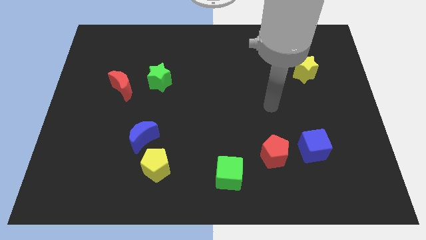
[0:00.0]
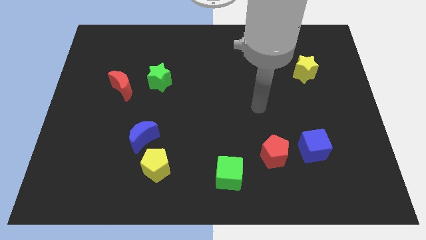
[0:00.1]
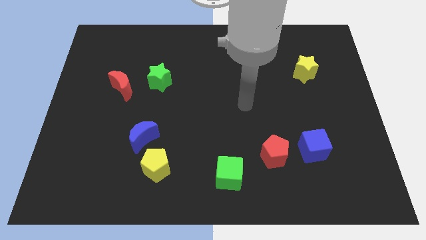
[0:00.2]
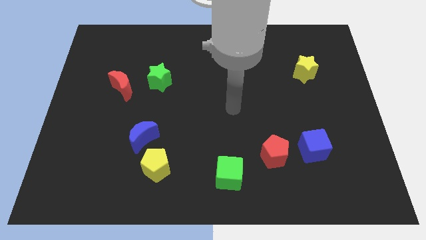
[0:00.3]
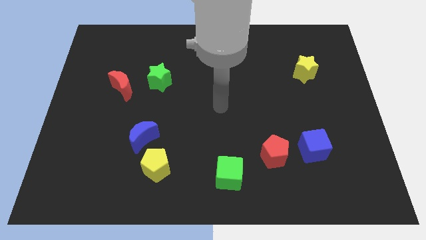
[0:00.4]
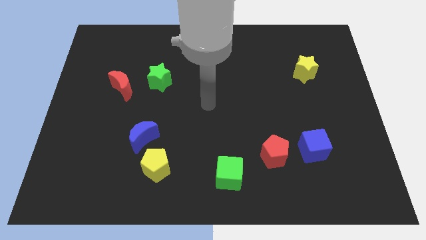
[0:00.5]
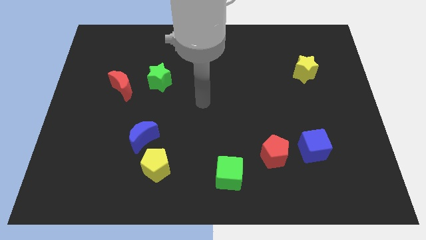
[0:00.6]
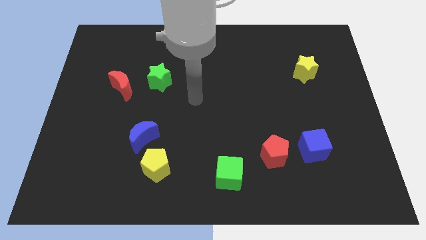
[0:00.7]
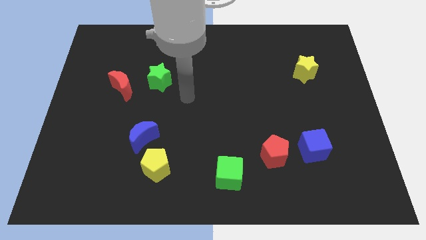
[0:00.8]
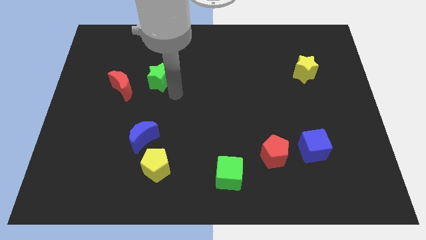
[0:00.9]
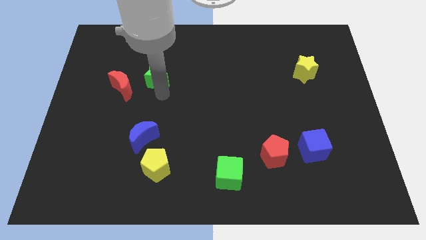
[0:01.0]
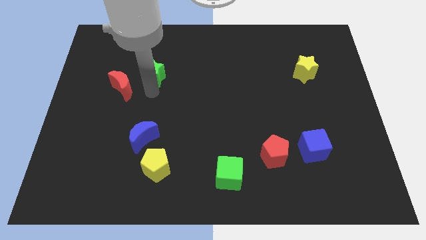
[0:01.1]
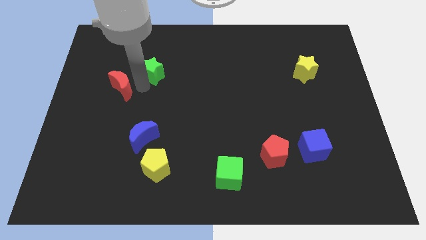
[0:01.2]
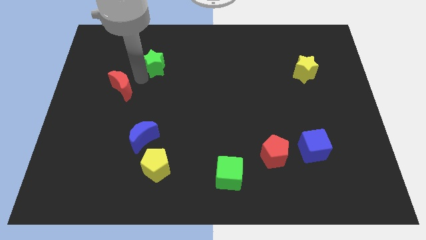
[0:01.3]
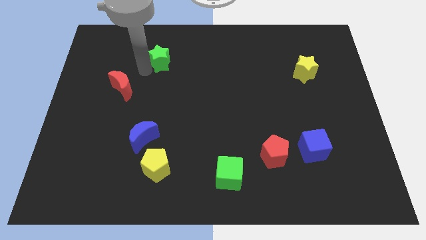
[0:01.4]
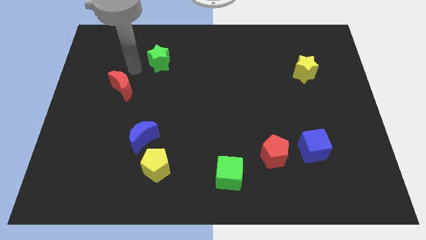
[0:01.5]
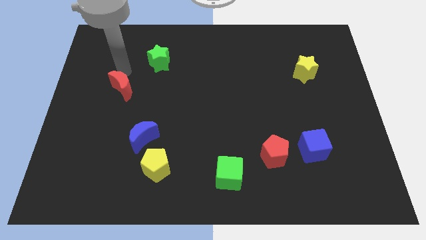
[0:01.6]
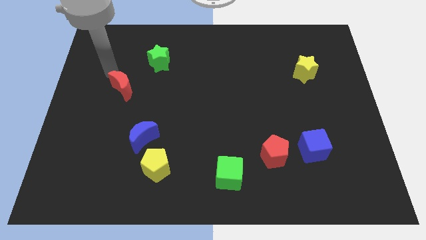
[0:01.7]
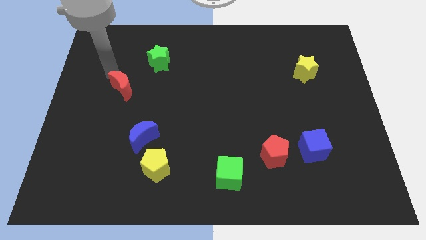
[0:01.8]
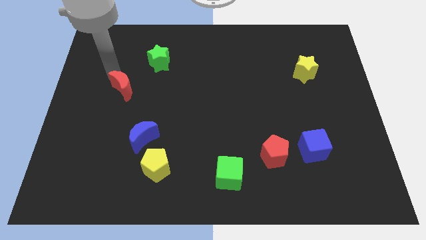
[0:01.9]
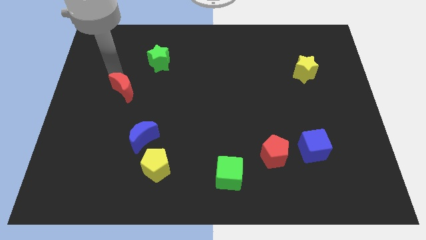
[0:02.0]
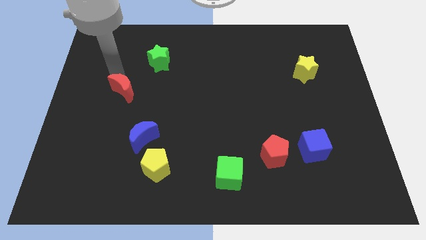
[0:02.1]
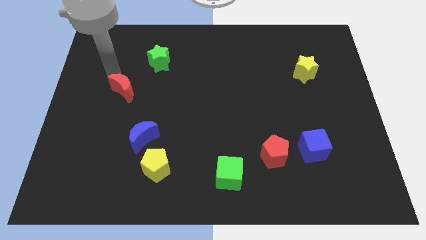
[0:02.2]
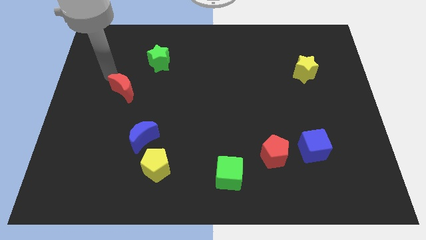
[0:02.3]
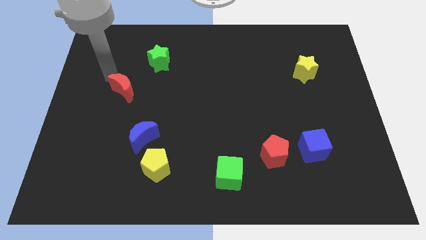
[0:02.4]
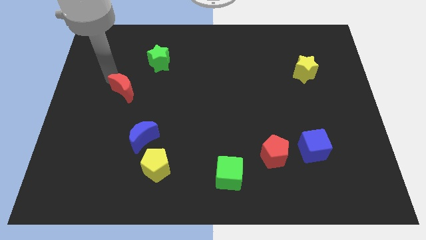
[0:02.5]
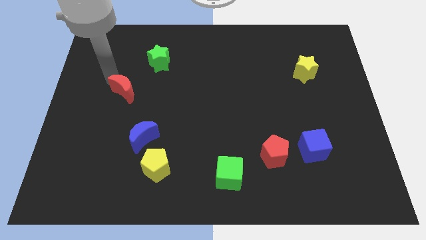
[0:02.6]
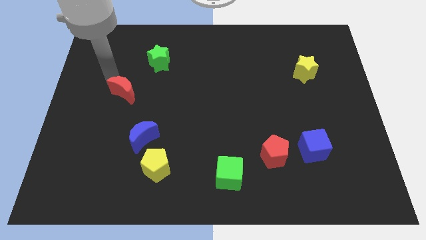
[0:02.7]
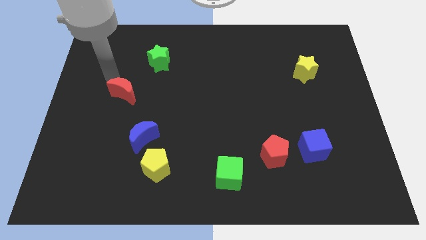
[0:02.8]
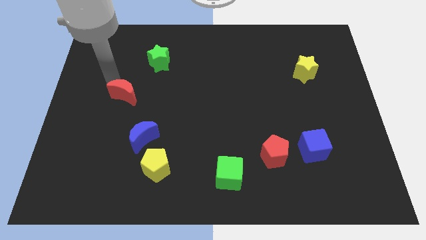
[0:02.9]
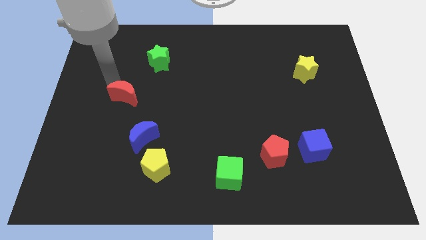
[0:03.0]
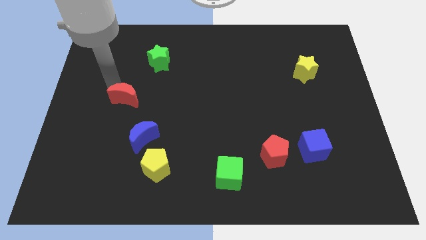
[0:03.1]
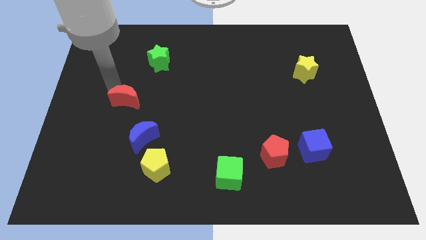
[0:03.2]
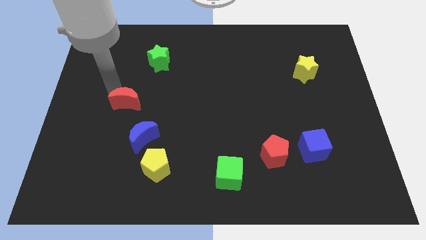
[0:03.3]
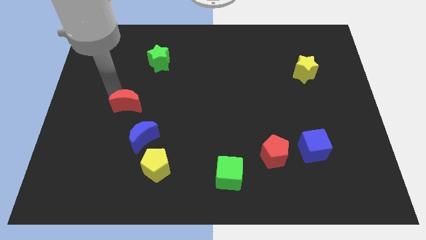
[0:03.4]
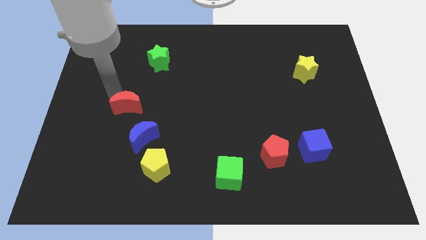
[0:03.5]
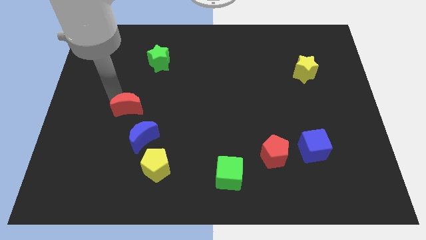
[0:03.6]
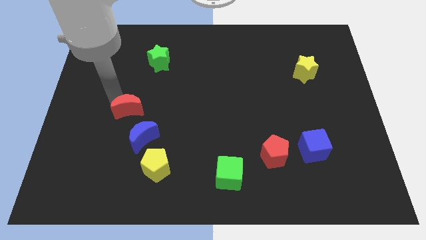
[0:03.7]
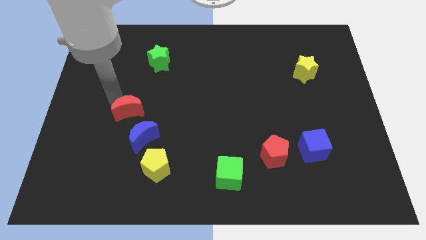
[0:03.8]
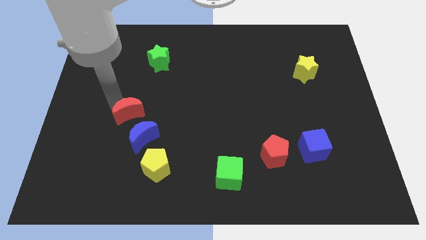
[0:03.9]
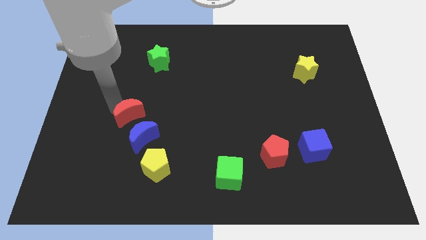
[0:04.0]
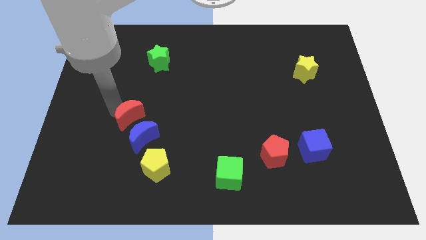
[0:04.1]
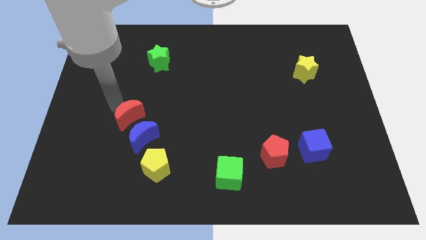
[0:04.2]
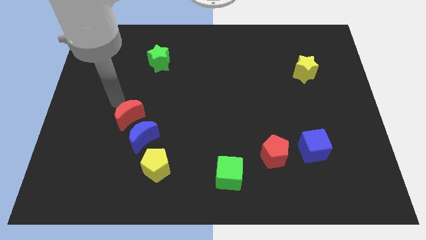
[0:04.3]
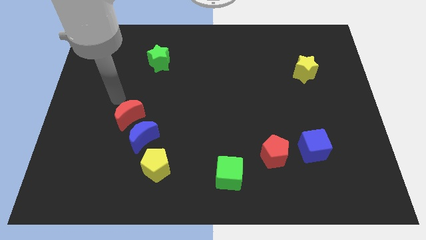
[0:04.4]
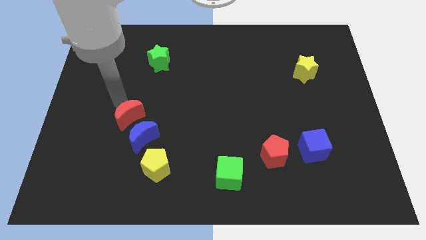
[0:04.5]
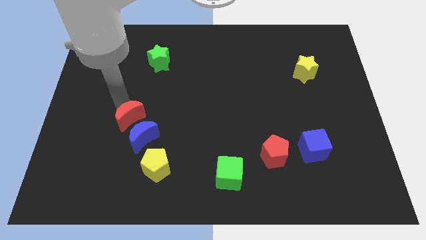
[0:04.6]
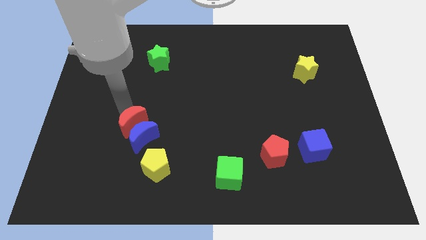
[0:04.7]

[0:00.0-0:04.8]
push the red moon close to the blue moon

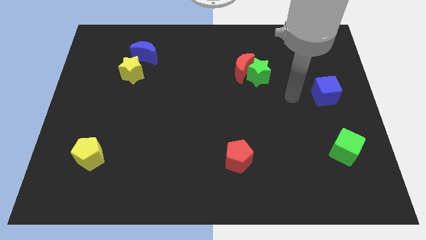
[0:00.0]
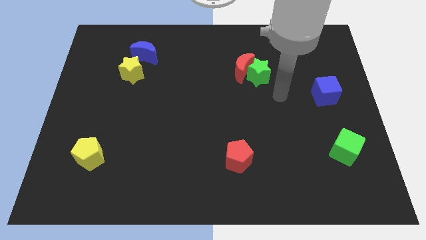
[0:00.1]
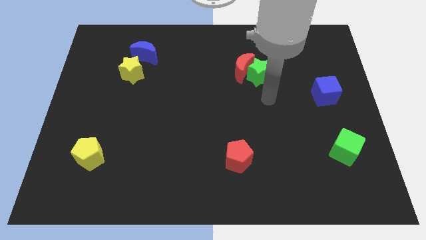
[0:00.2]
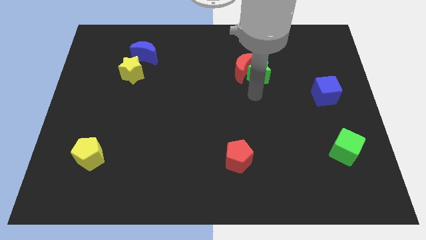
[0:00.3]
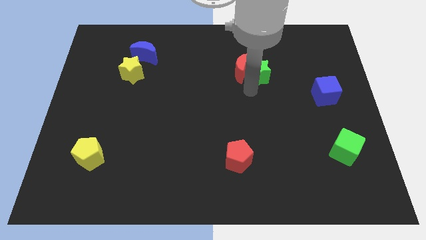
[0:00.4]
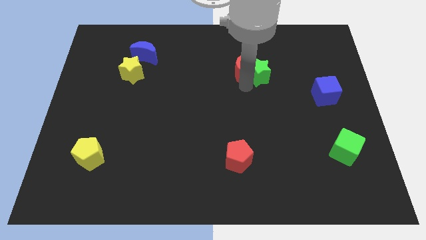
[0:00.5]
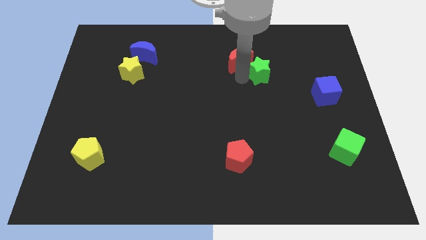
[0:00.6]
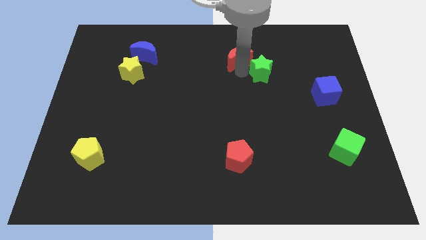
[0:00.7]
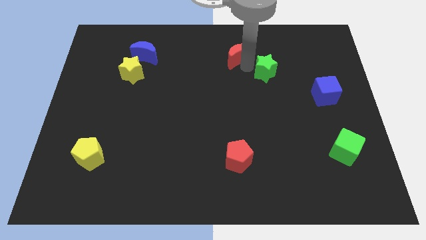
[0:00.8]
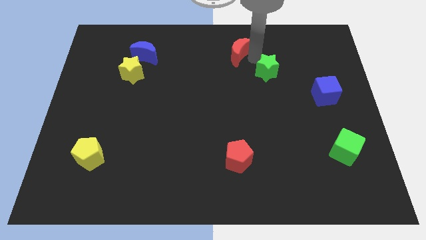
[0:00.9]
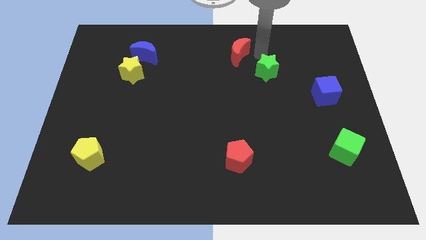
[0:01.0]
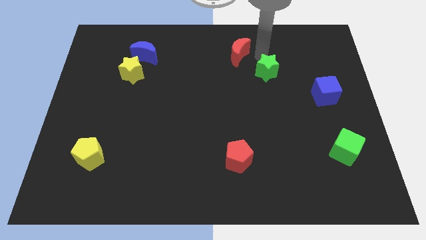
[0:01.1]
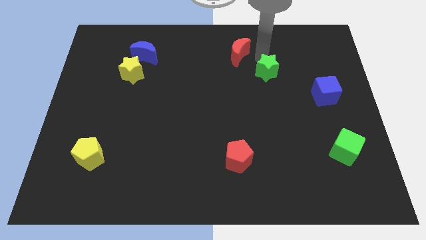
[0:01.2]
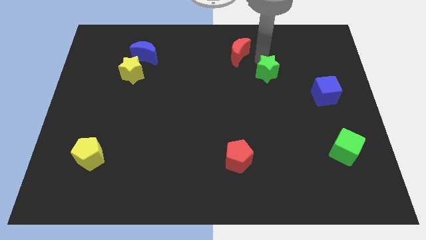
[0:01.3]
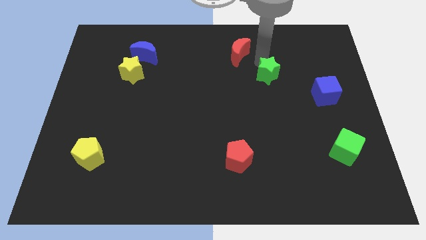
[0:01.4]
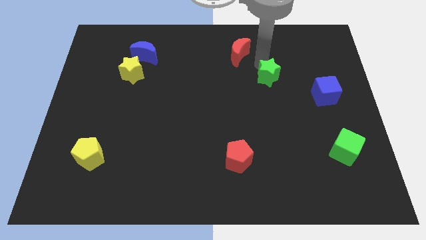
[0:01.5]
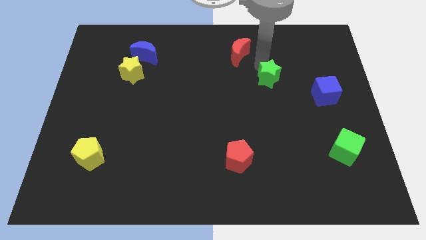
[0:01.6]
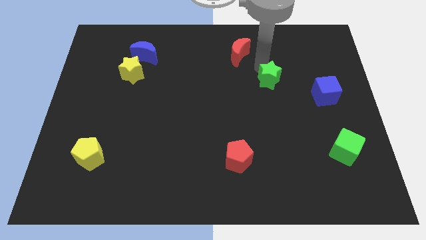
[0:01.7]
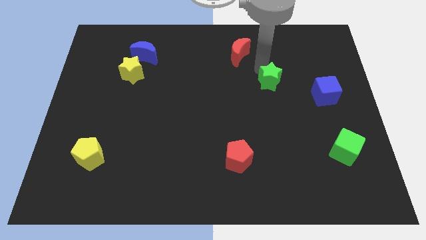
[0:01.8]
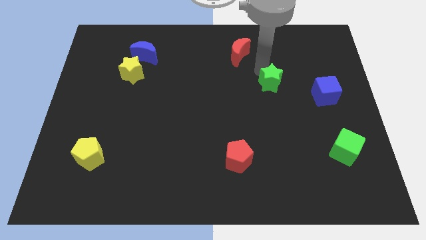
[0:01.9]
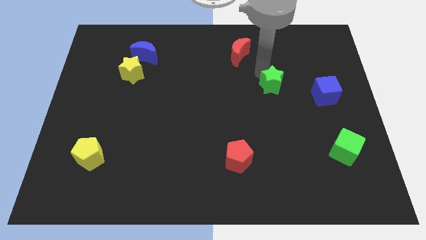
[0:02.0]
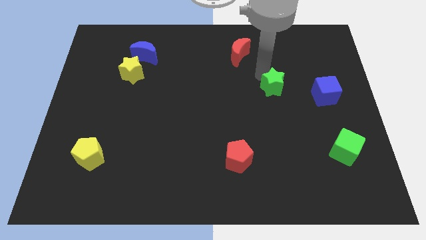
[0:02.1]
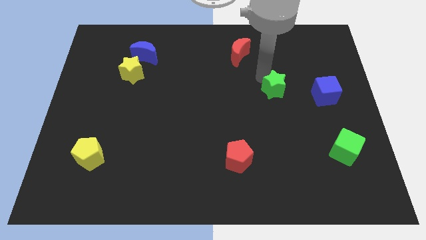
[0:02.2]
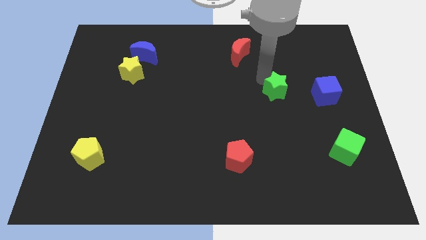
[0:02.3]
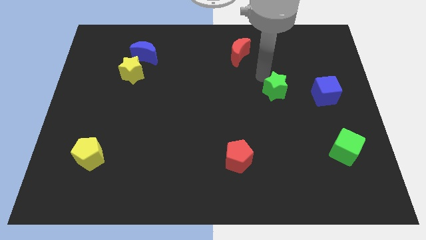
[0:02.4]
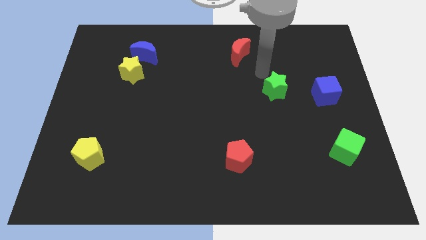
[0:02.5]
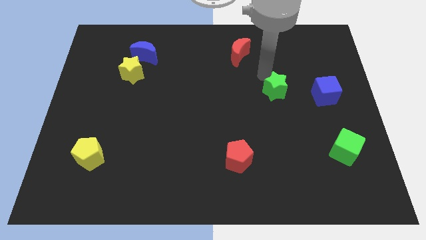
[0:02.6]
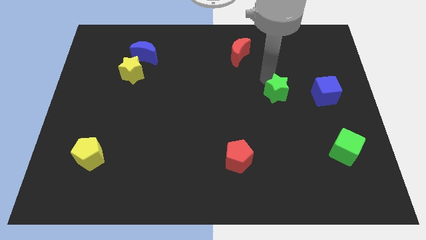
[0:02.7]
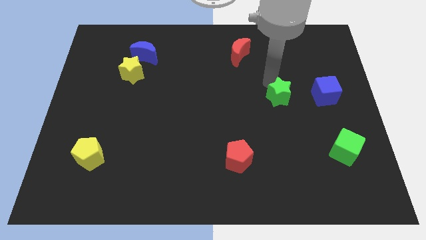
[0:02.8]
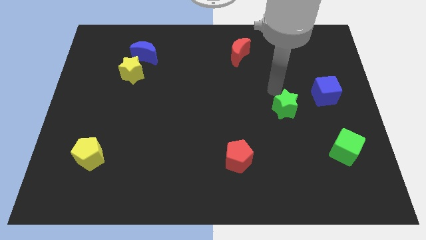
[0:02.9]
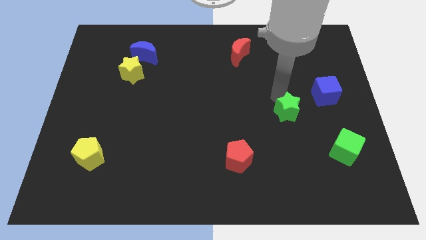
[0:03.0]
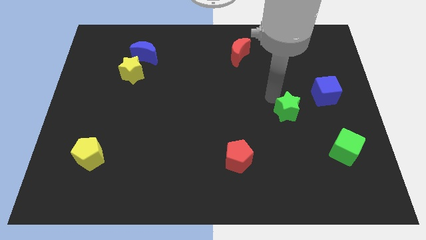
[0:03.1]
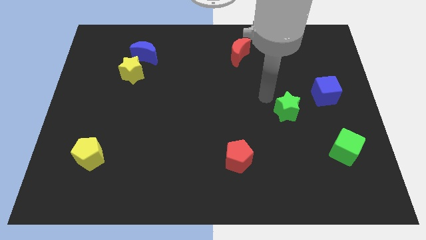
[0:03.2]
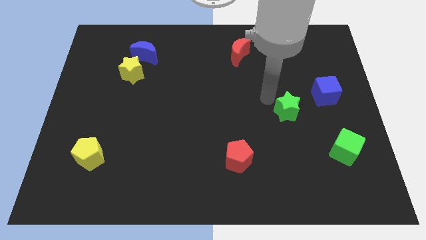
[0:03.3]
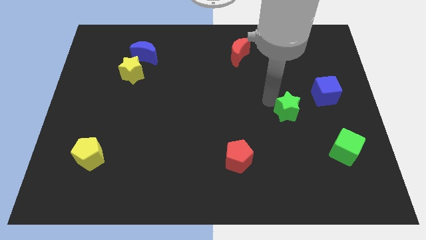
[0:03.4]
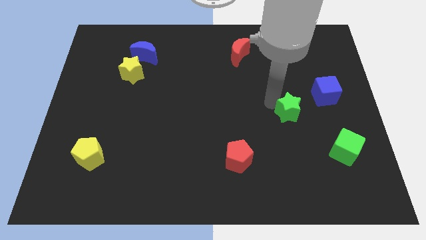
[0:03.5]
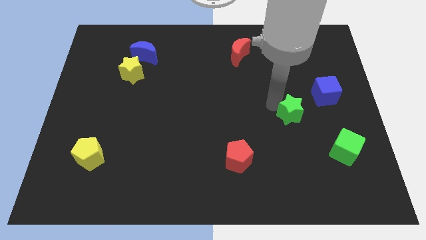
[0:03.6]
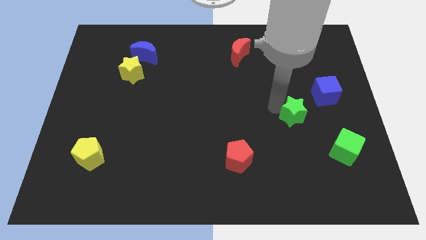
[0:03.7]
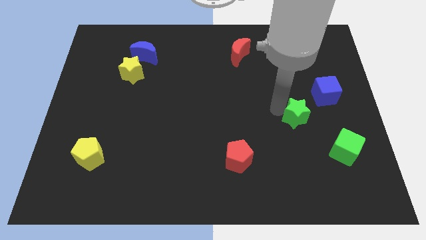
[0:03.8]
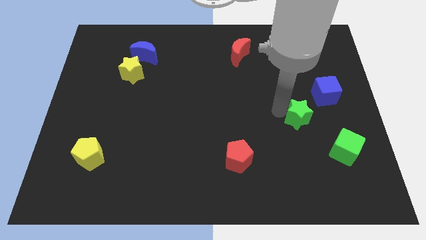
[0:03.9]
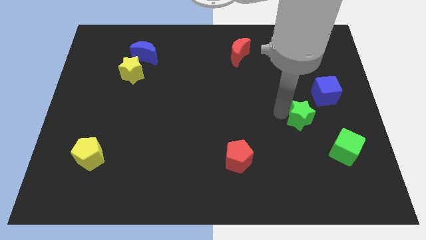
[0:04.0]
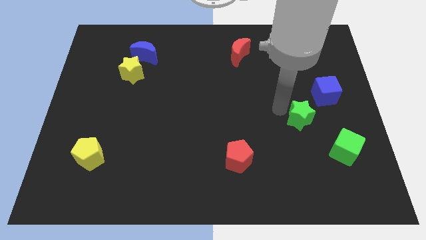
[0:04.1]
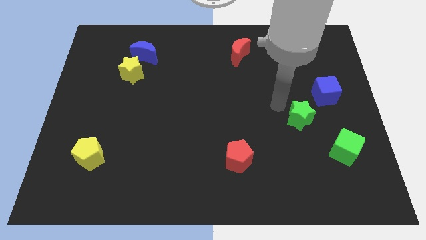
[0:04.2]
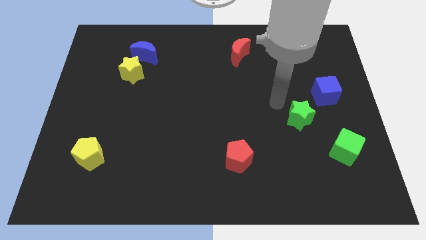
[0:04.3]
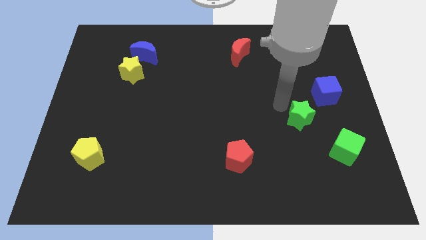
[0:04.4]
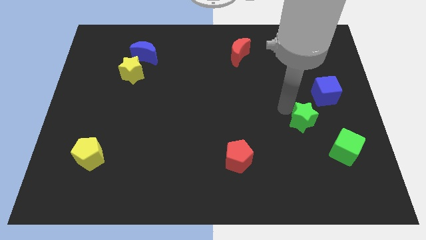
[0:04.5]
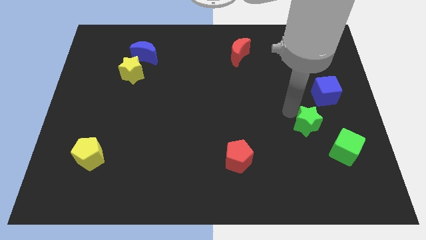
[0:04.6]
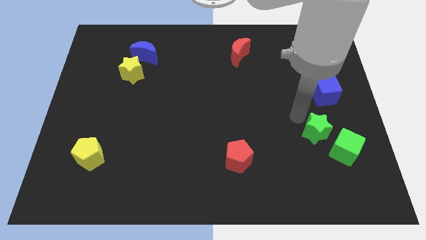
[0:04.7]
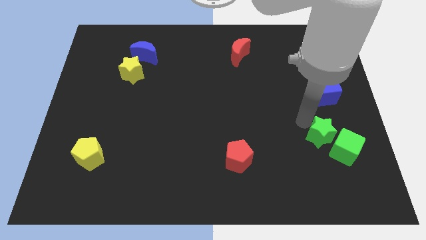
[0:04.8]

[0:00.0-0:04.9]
move the green star towards the green cube
